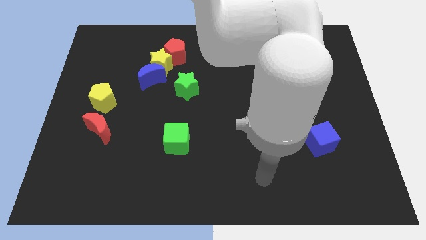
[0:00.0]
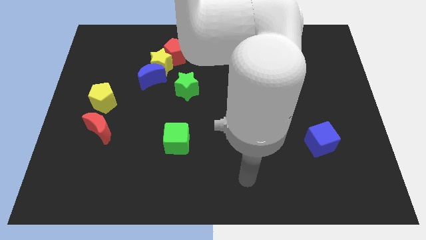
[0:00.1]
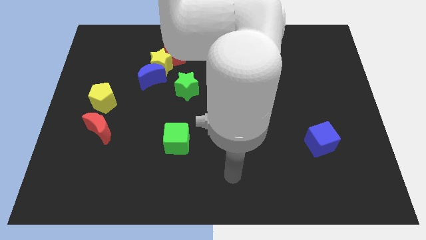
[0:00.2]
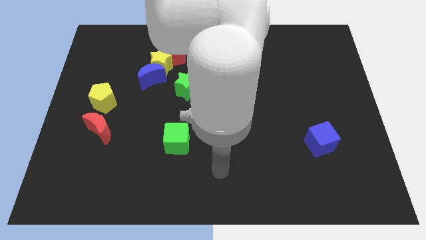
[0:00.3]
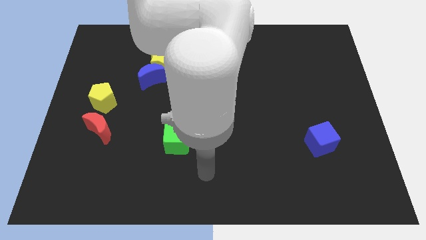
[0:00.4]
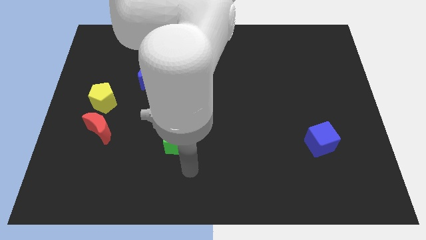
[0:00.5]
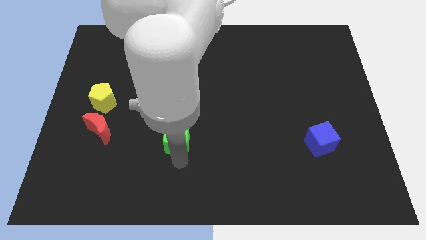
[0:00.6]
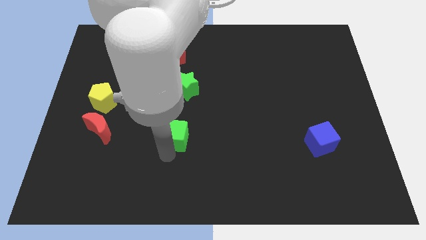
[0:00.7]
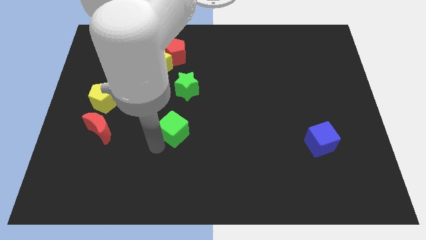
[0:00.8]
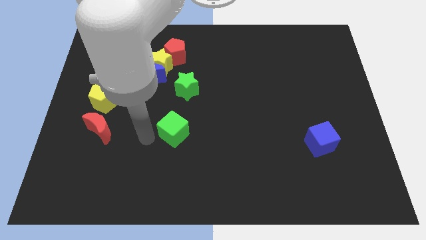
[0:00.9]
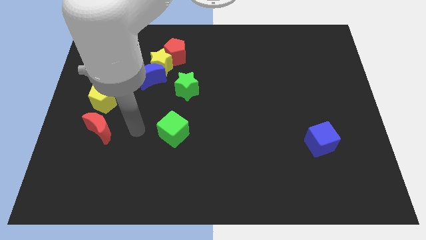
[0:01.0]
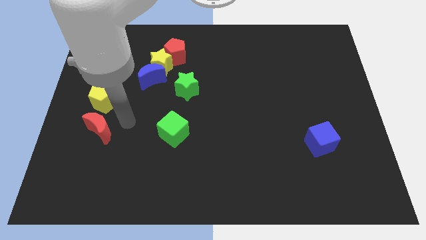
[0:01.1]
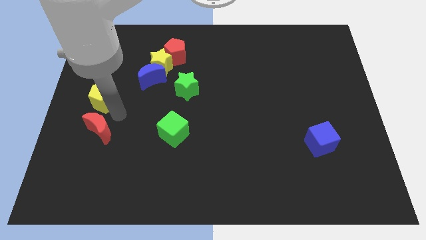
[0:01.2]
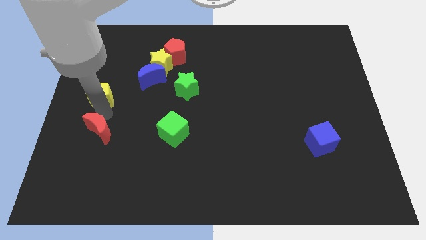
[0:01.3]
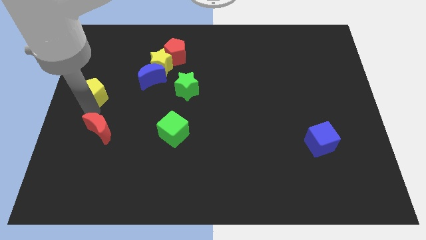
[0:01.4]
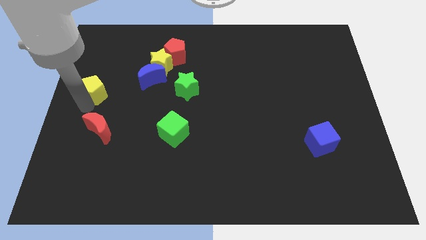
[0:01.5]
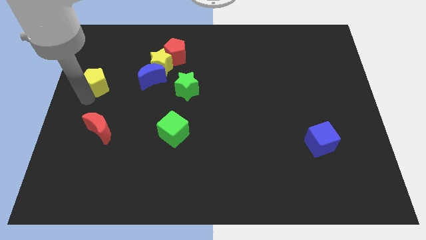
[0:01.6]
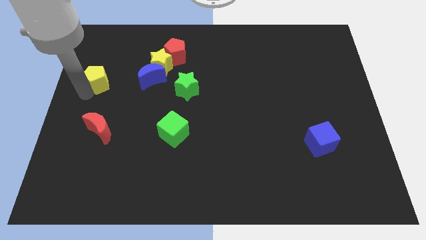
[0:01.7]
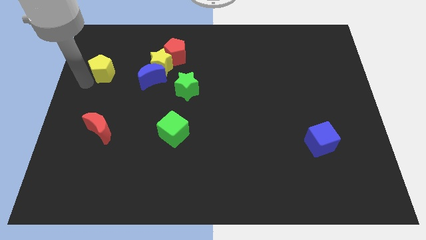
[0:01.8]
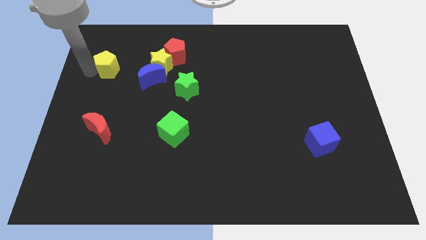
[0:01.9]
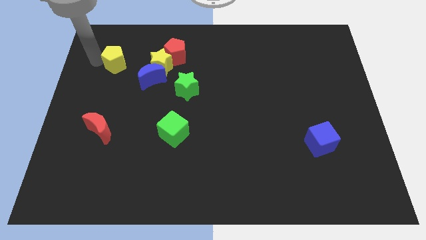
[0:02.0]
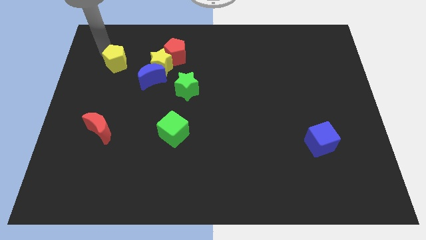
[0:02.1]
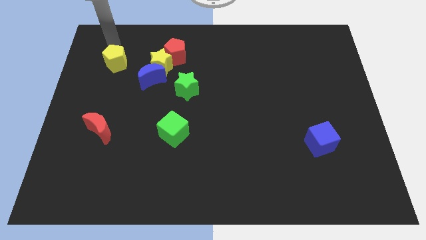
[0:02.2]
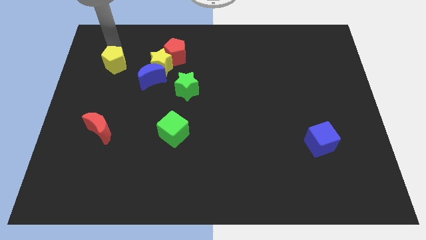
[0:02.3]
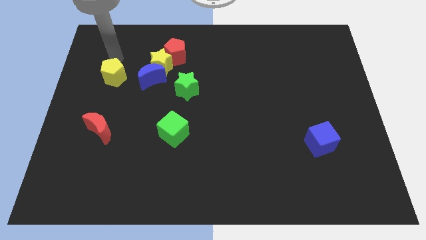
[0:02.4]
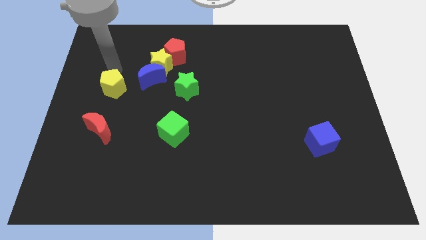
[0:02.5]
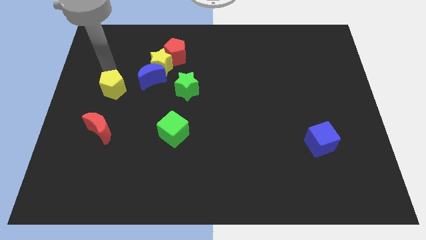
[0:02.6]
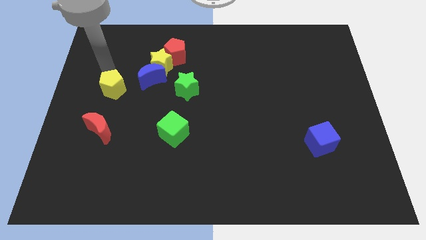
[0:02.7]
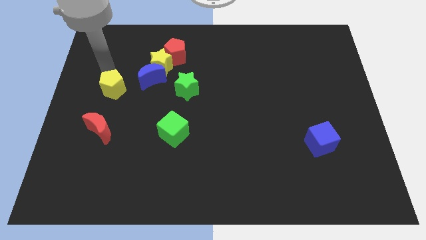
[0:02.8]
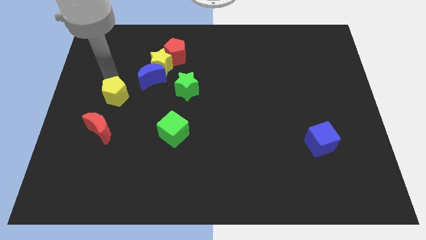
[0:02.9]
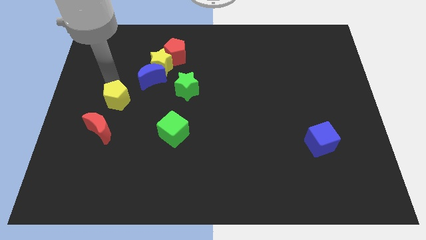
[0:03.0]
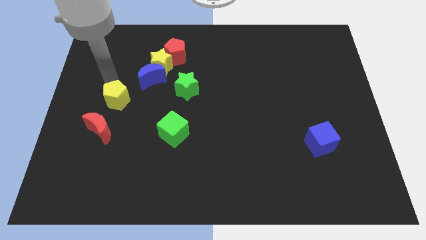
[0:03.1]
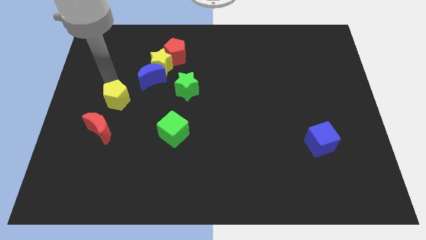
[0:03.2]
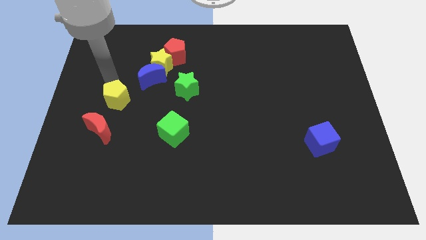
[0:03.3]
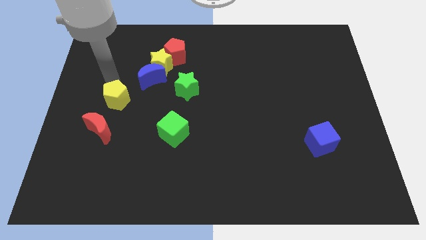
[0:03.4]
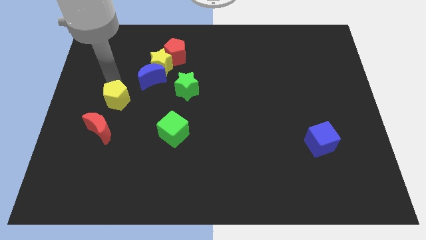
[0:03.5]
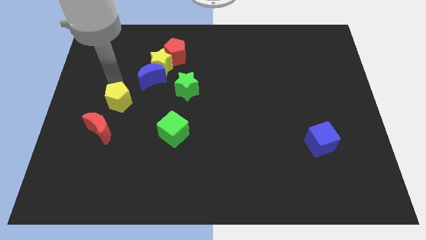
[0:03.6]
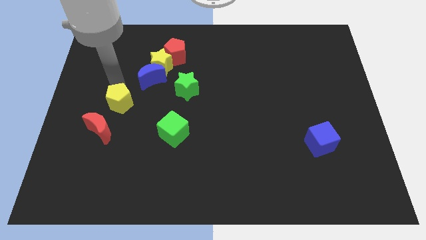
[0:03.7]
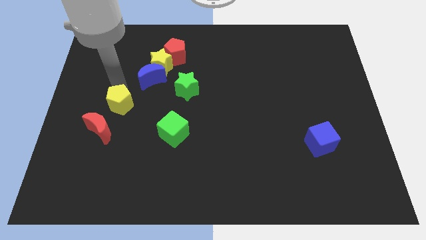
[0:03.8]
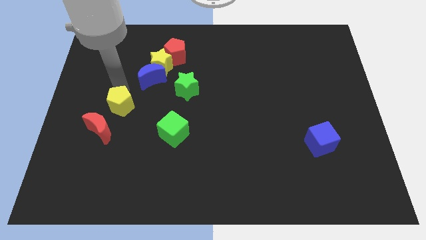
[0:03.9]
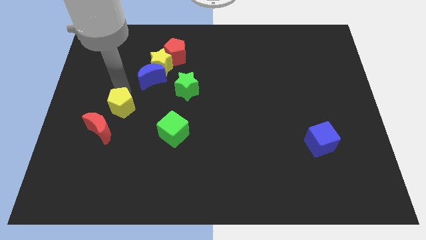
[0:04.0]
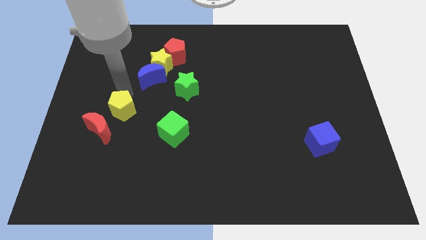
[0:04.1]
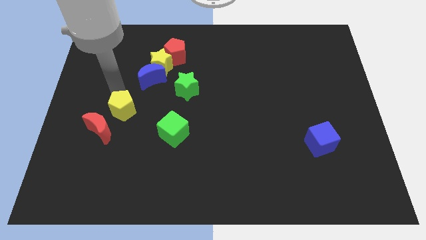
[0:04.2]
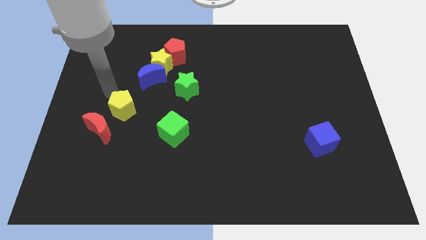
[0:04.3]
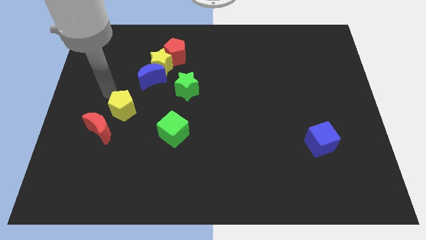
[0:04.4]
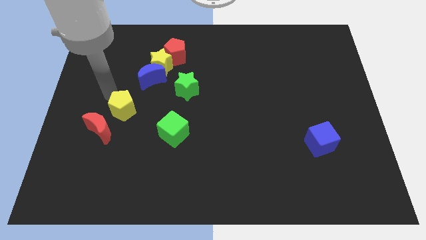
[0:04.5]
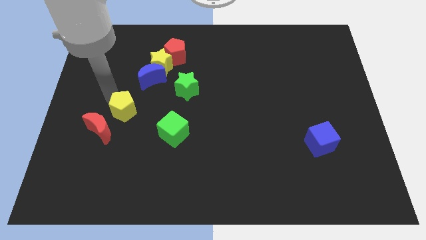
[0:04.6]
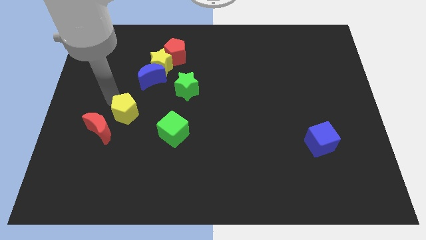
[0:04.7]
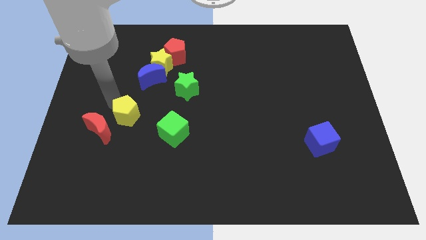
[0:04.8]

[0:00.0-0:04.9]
slightly move the yellow pentagon down and right

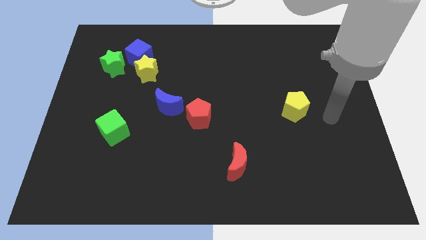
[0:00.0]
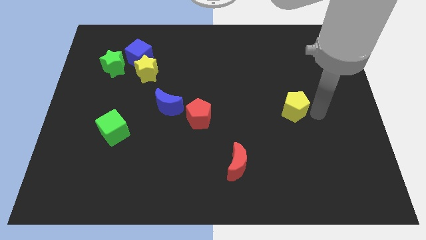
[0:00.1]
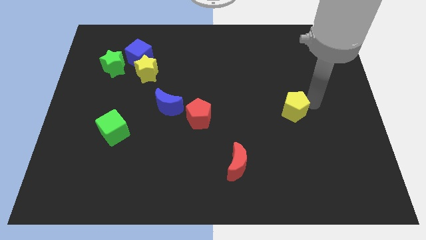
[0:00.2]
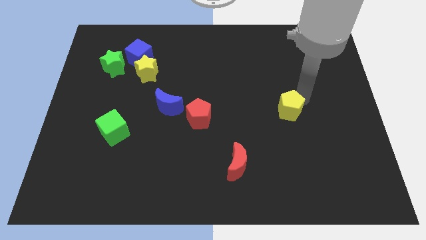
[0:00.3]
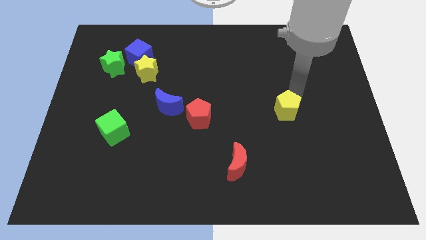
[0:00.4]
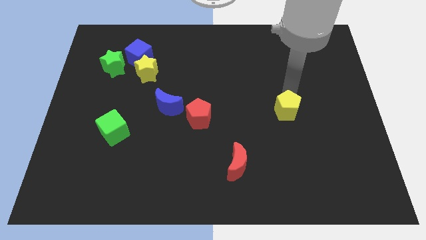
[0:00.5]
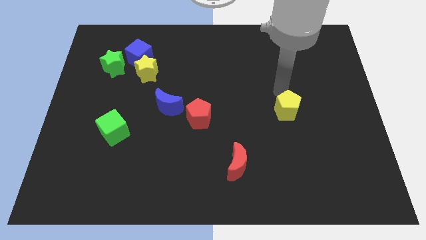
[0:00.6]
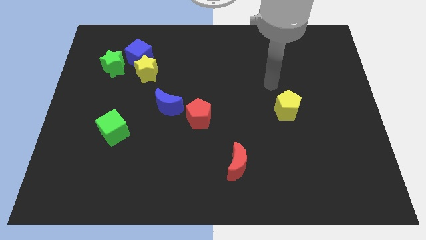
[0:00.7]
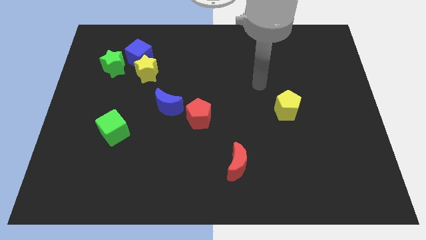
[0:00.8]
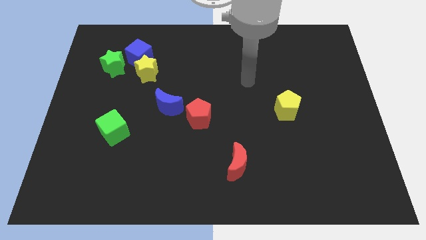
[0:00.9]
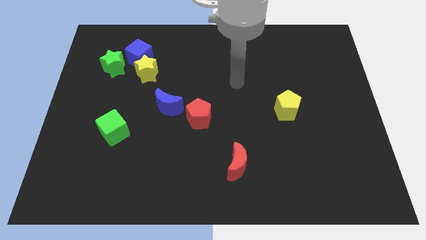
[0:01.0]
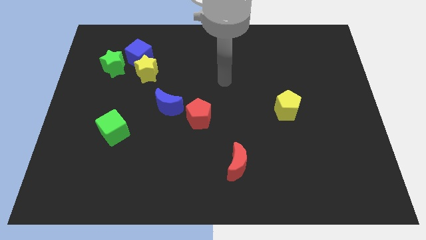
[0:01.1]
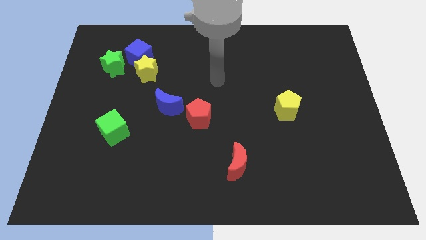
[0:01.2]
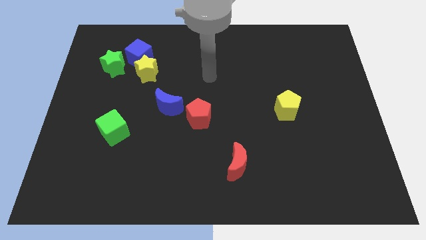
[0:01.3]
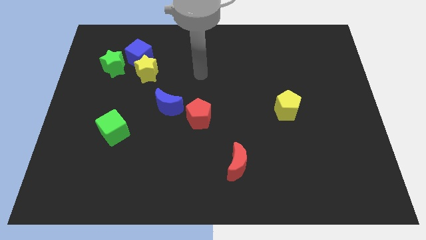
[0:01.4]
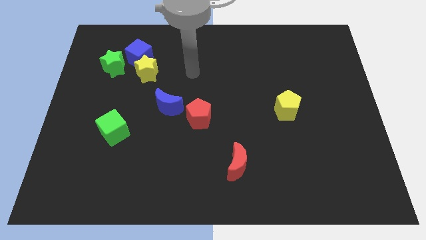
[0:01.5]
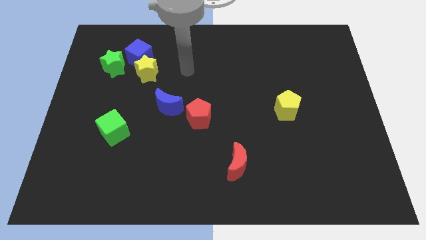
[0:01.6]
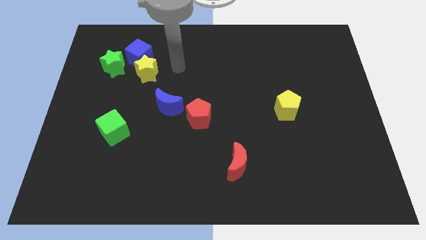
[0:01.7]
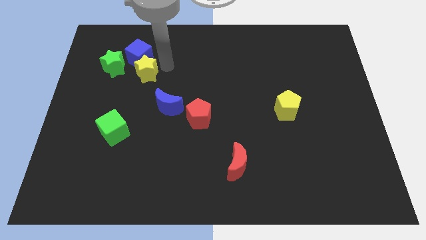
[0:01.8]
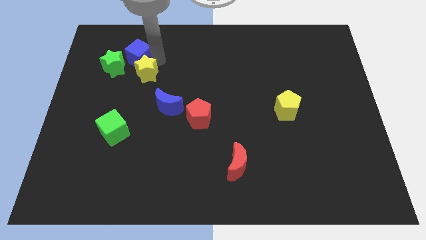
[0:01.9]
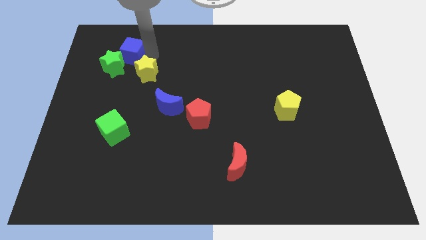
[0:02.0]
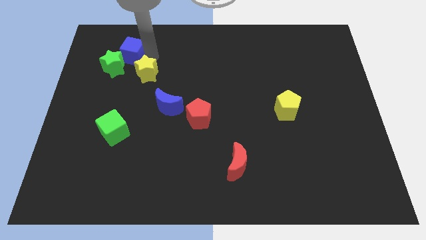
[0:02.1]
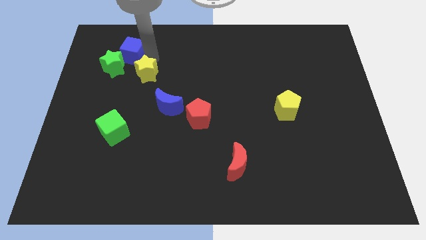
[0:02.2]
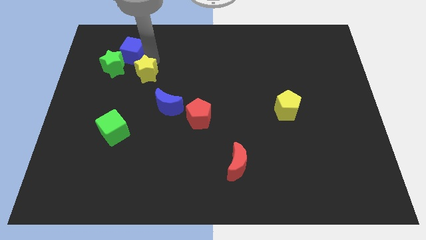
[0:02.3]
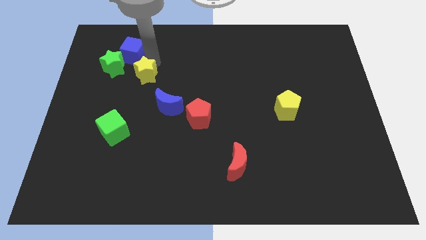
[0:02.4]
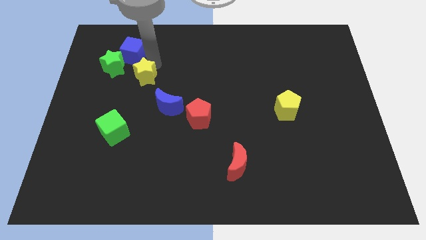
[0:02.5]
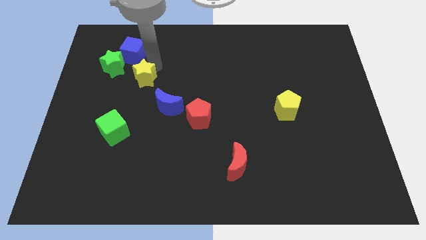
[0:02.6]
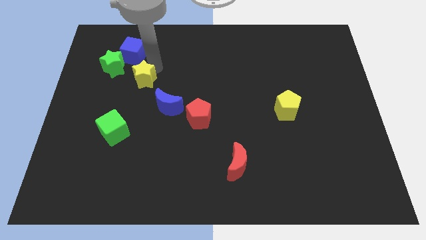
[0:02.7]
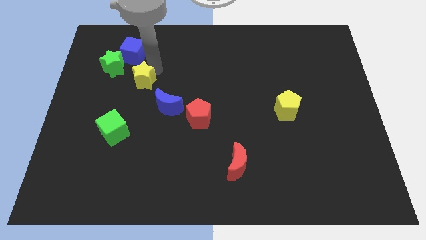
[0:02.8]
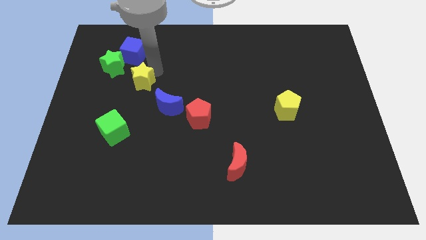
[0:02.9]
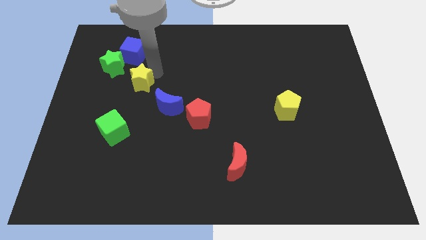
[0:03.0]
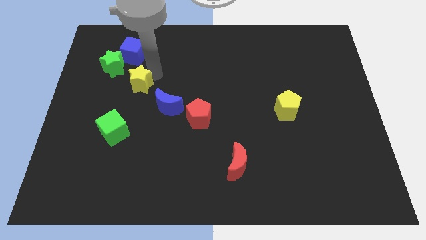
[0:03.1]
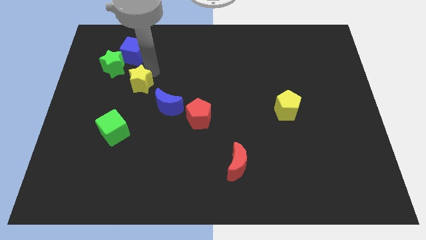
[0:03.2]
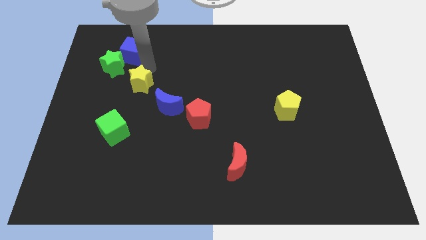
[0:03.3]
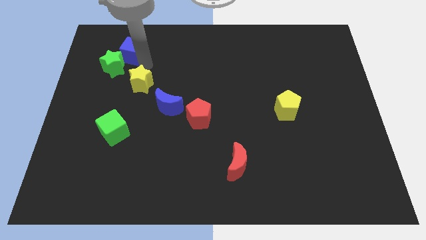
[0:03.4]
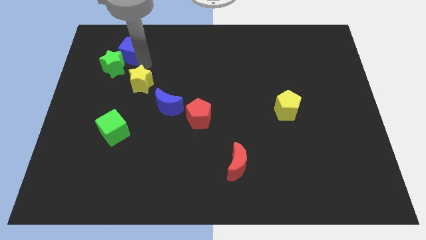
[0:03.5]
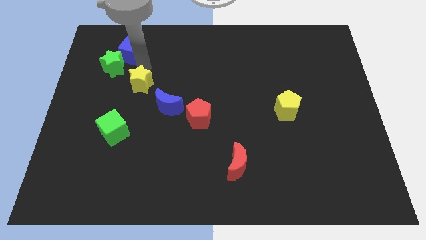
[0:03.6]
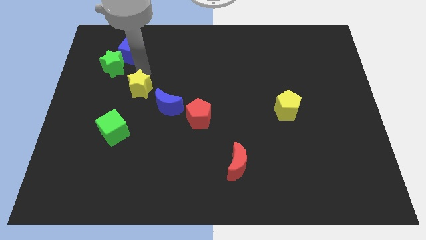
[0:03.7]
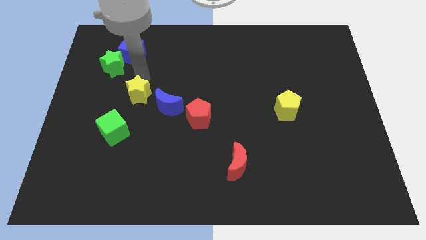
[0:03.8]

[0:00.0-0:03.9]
slightly push the yellow star downwards
